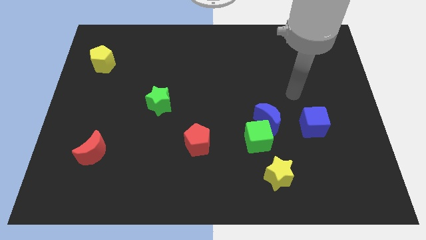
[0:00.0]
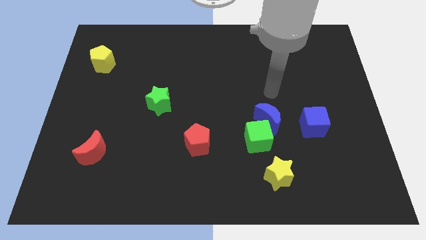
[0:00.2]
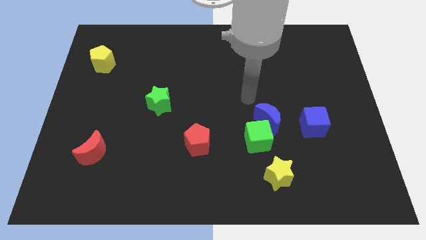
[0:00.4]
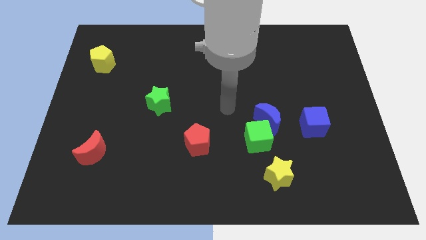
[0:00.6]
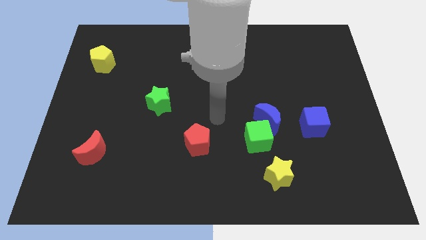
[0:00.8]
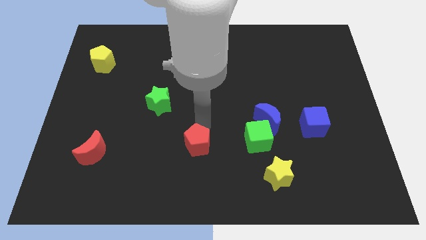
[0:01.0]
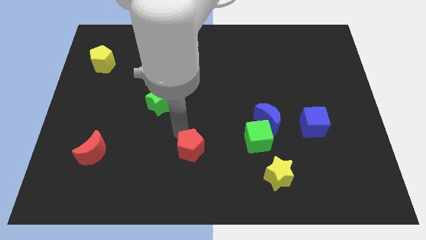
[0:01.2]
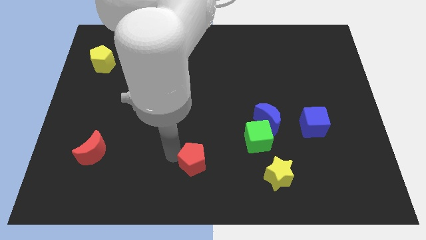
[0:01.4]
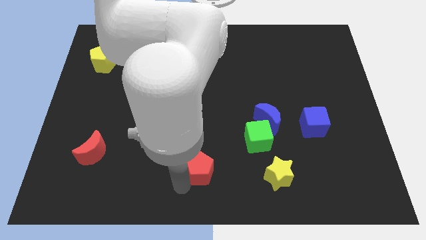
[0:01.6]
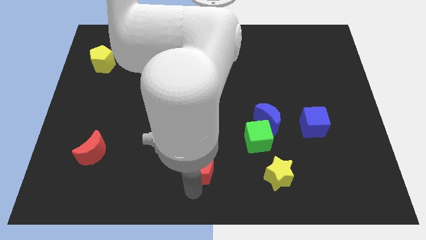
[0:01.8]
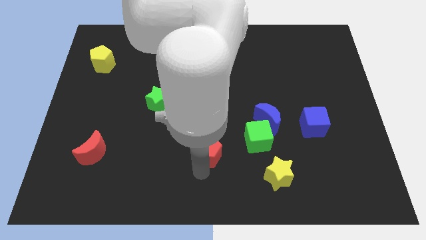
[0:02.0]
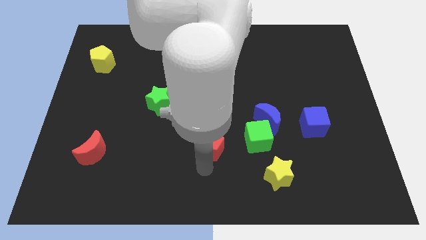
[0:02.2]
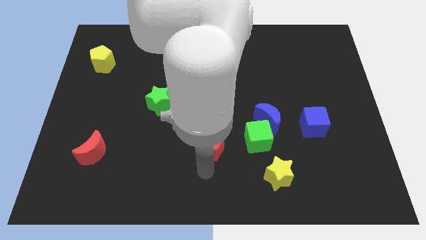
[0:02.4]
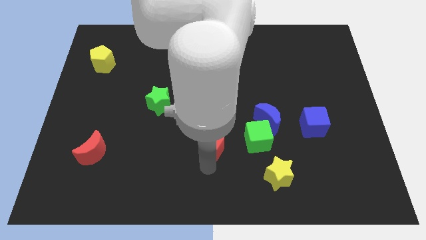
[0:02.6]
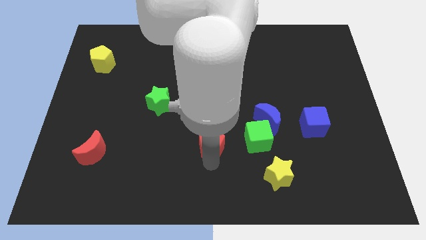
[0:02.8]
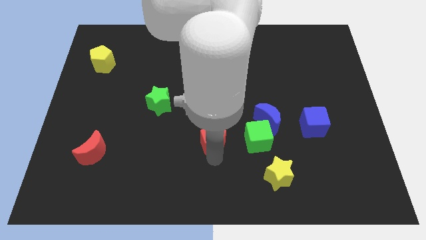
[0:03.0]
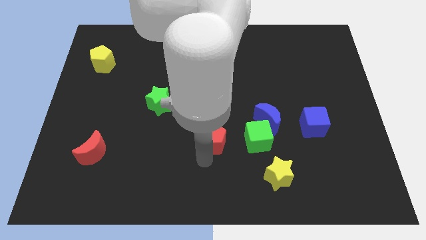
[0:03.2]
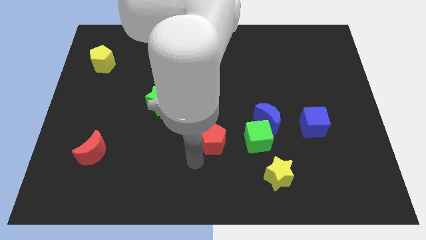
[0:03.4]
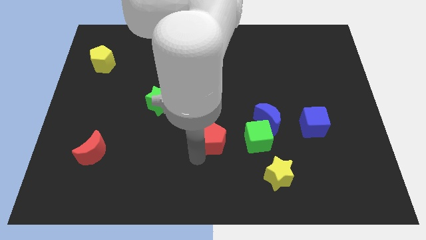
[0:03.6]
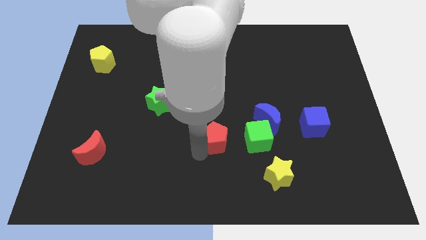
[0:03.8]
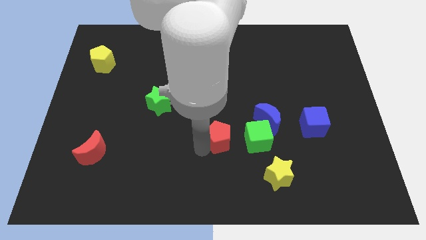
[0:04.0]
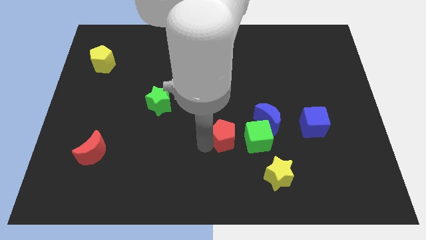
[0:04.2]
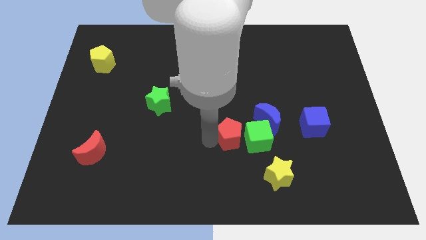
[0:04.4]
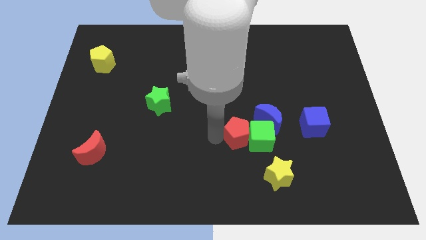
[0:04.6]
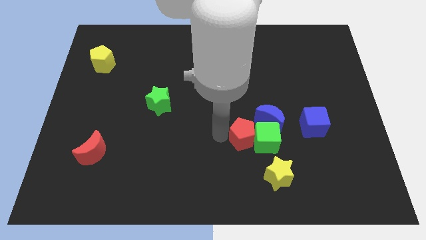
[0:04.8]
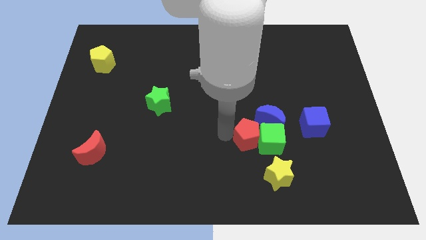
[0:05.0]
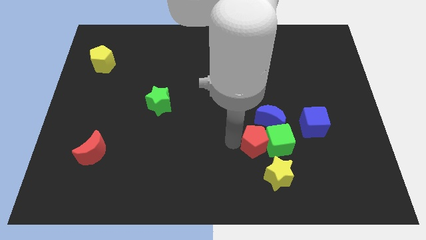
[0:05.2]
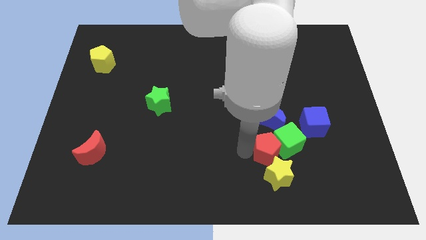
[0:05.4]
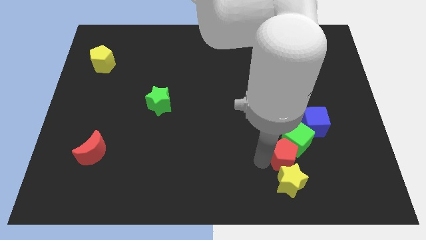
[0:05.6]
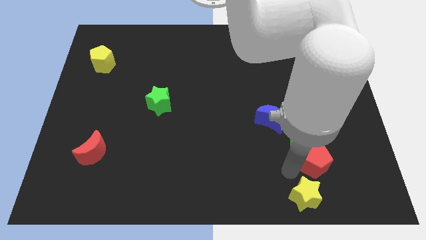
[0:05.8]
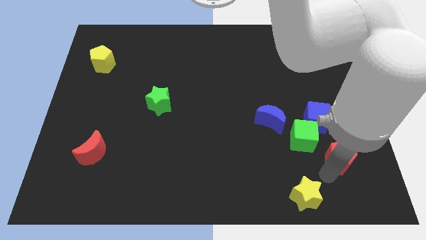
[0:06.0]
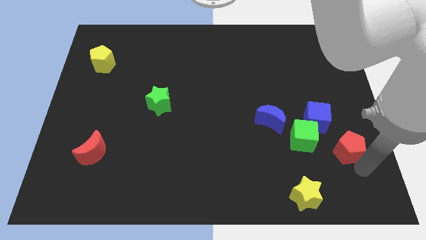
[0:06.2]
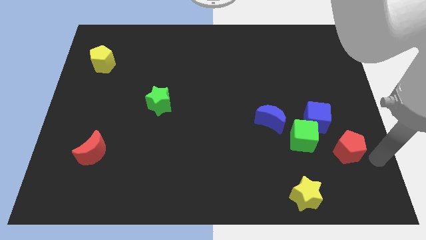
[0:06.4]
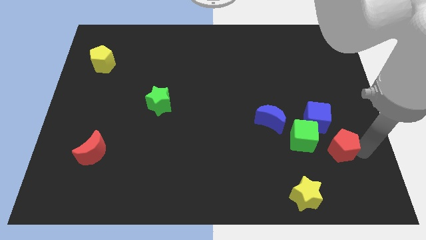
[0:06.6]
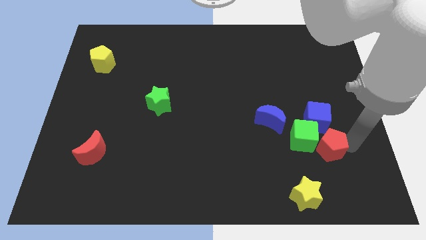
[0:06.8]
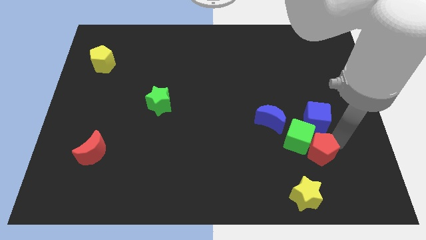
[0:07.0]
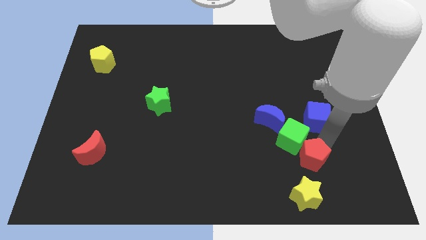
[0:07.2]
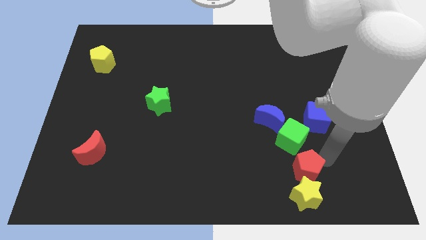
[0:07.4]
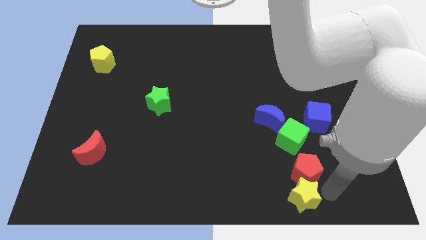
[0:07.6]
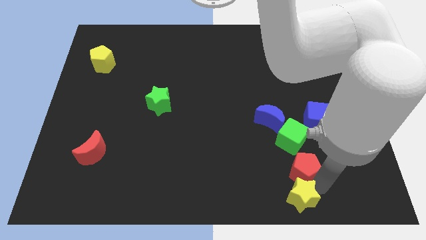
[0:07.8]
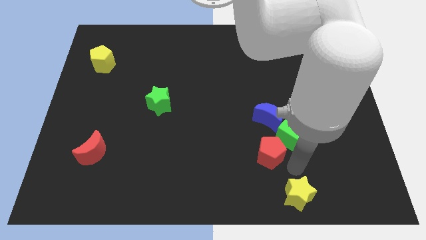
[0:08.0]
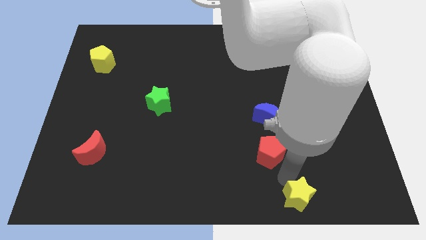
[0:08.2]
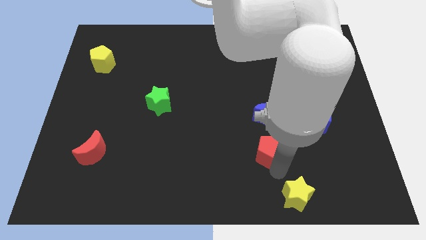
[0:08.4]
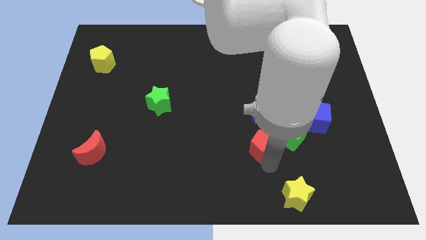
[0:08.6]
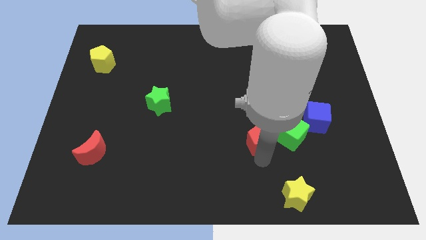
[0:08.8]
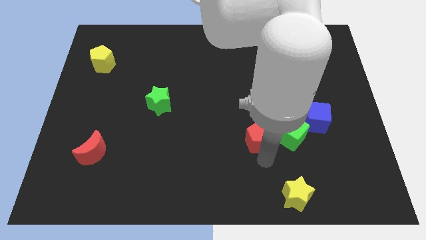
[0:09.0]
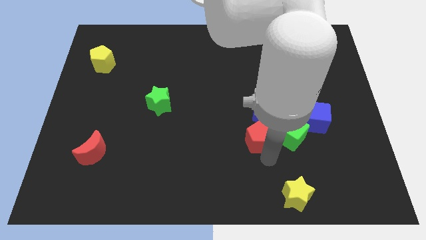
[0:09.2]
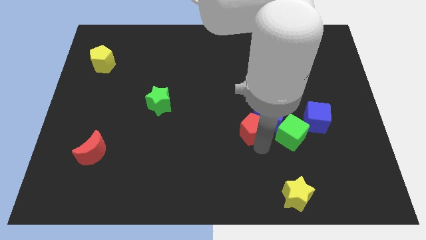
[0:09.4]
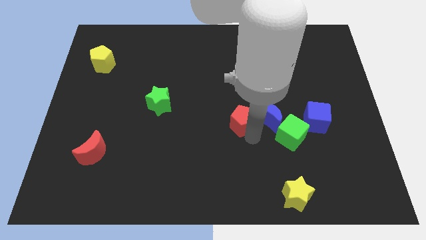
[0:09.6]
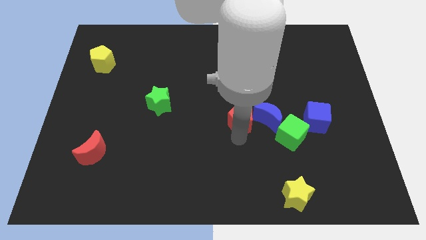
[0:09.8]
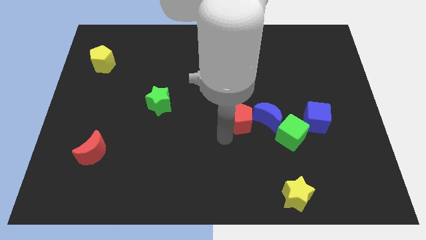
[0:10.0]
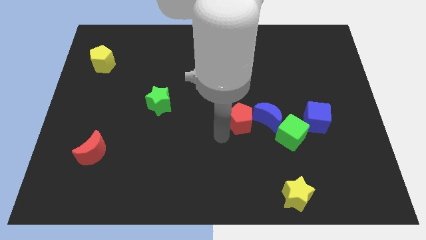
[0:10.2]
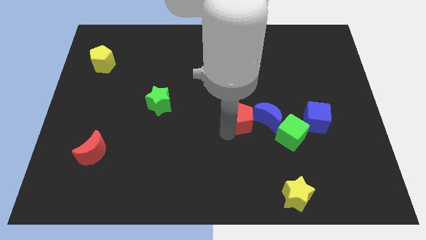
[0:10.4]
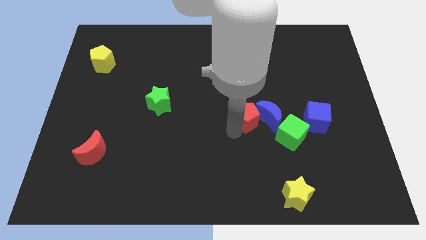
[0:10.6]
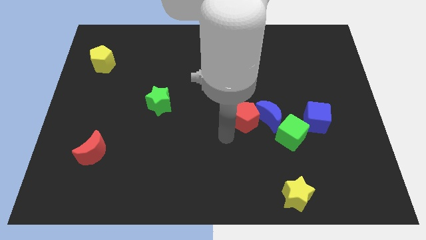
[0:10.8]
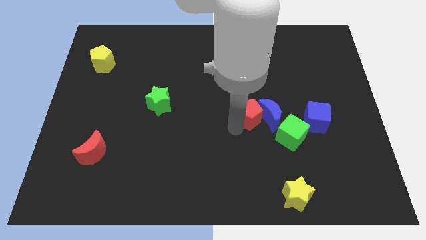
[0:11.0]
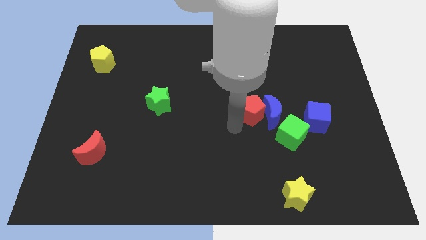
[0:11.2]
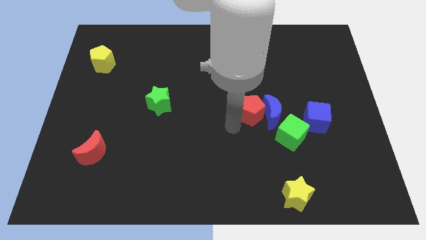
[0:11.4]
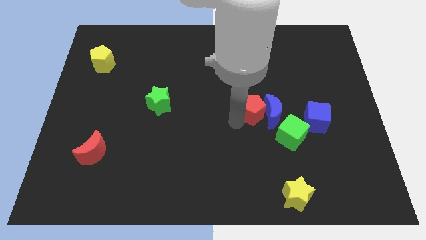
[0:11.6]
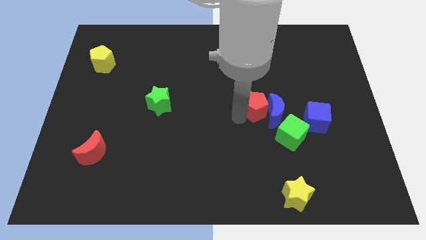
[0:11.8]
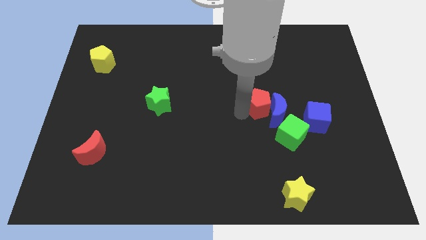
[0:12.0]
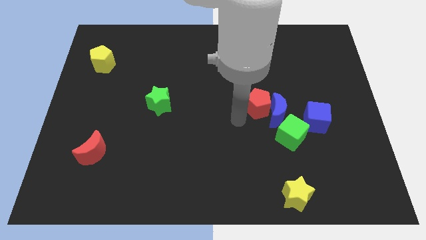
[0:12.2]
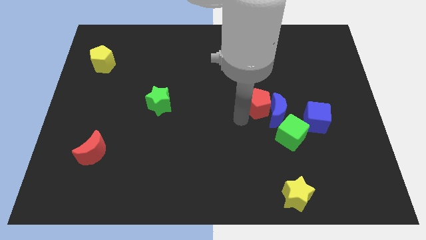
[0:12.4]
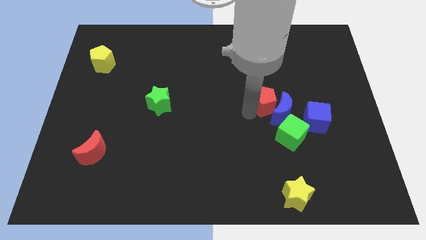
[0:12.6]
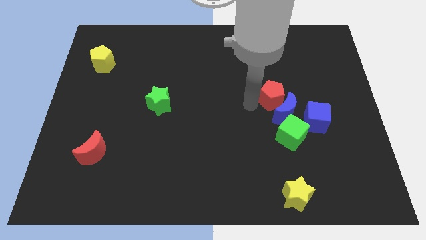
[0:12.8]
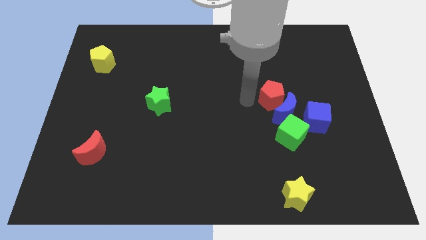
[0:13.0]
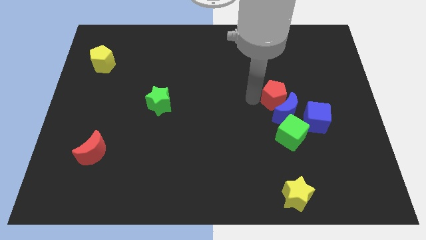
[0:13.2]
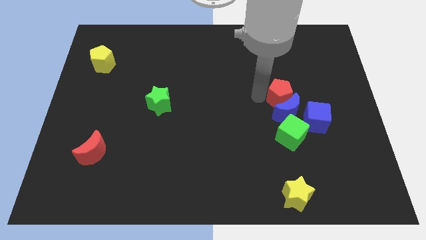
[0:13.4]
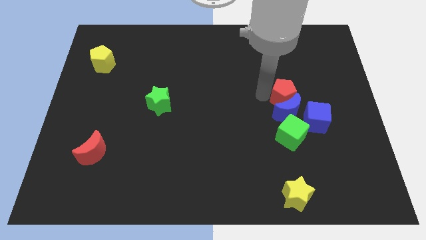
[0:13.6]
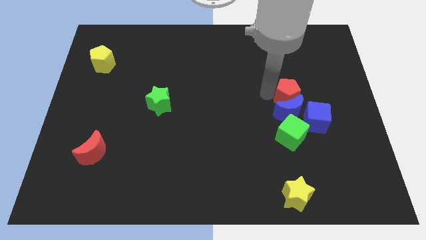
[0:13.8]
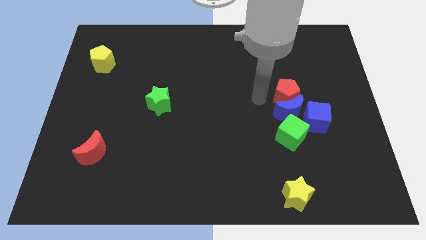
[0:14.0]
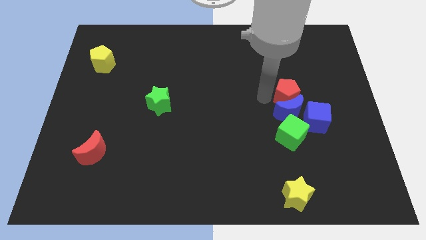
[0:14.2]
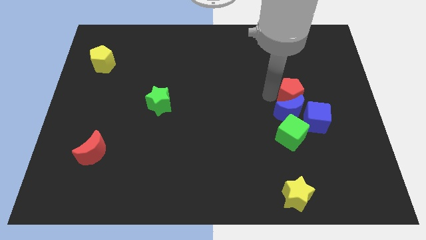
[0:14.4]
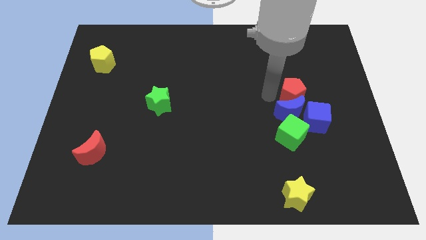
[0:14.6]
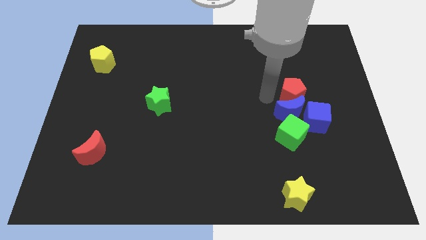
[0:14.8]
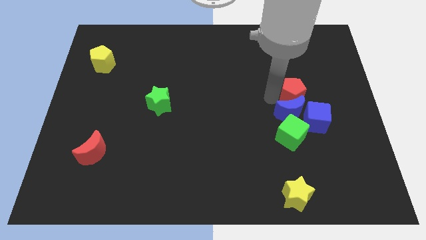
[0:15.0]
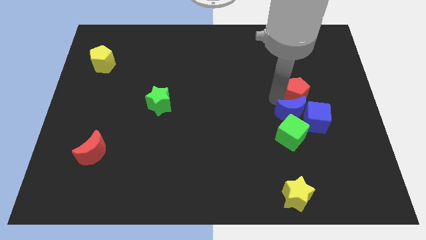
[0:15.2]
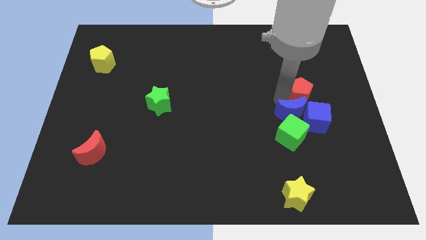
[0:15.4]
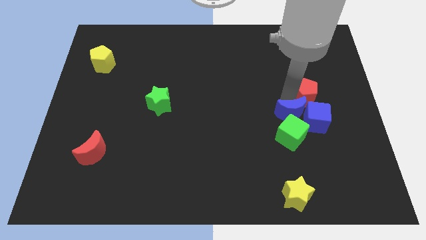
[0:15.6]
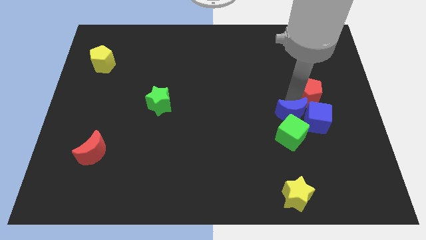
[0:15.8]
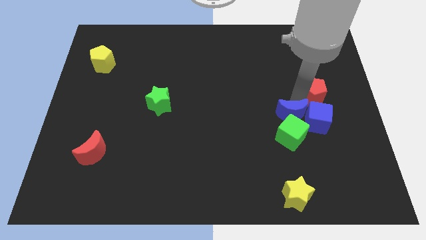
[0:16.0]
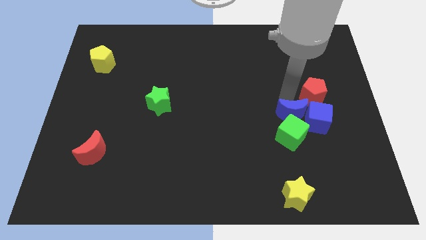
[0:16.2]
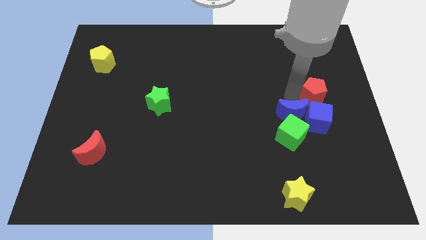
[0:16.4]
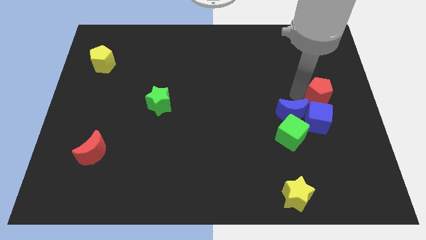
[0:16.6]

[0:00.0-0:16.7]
move the red pentagon to the right side of the board

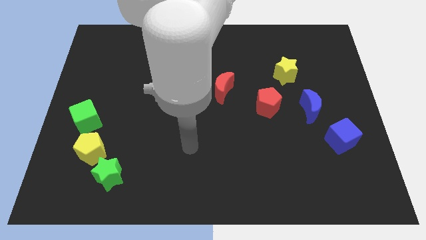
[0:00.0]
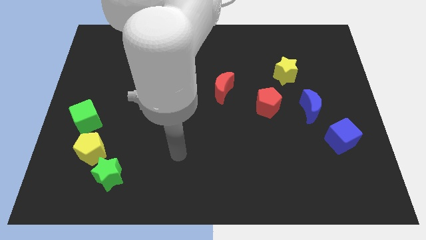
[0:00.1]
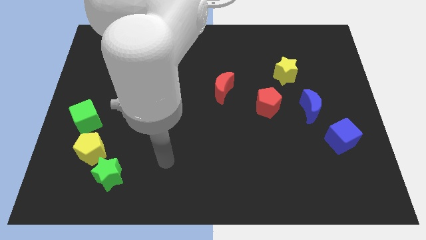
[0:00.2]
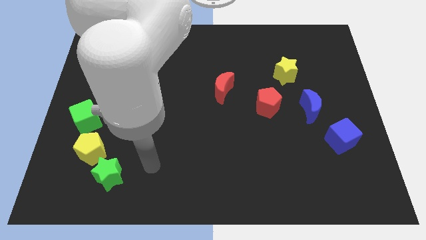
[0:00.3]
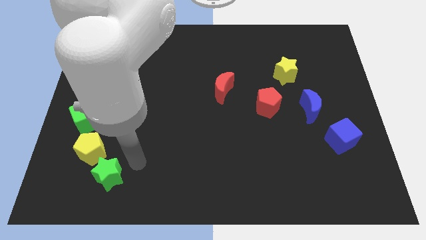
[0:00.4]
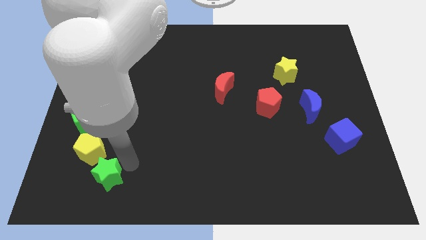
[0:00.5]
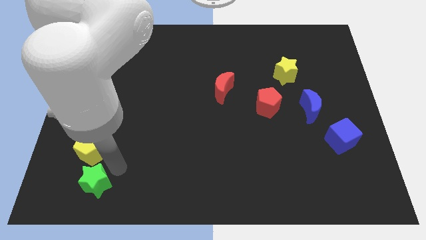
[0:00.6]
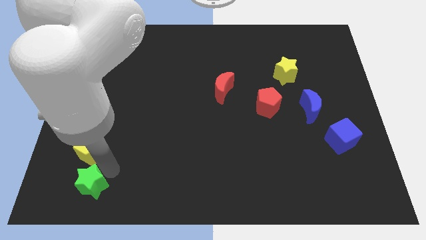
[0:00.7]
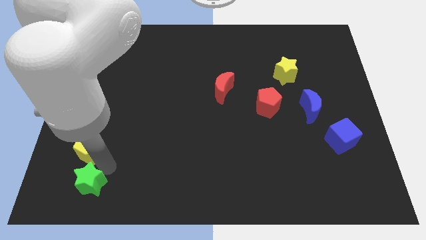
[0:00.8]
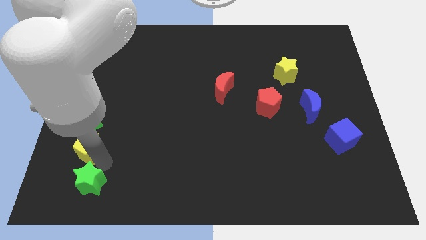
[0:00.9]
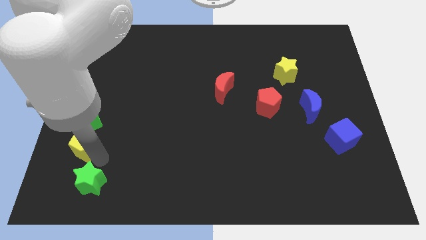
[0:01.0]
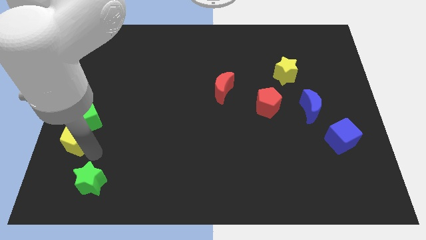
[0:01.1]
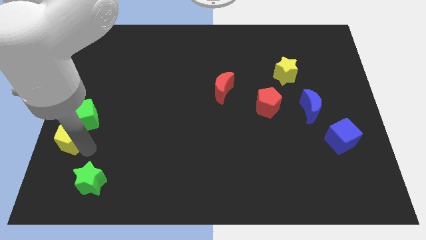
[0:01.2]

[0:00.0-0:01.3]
move the yellow pentagon to the left side
